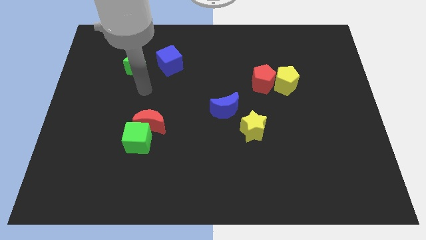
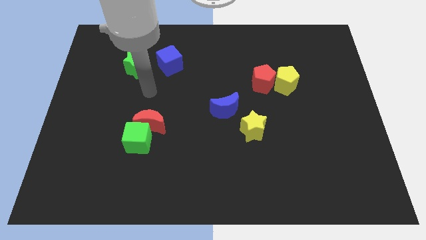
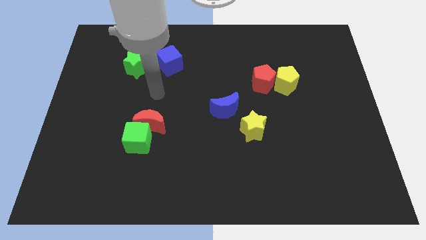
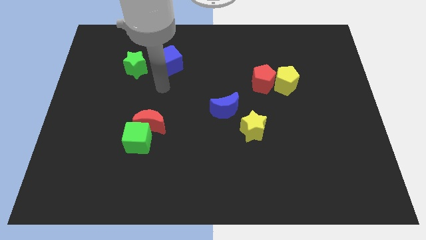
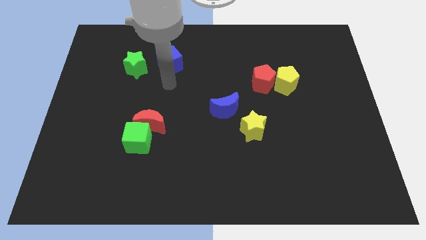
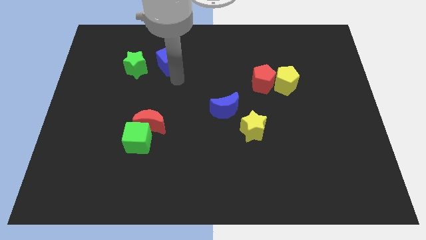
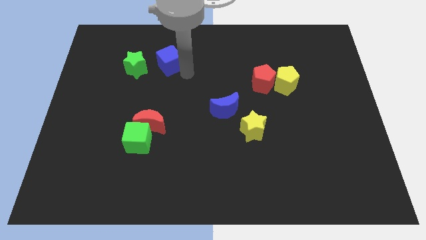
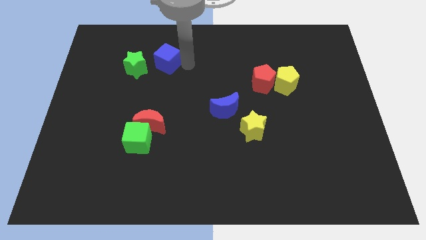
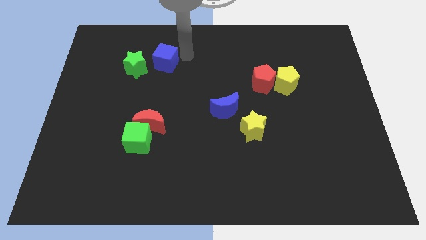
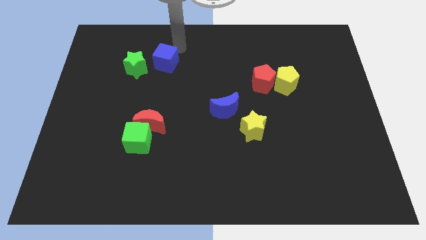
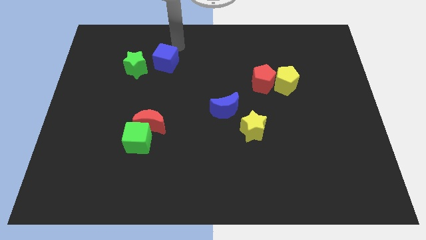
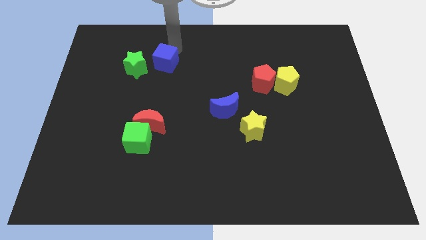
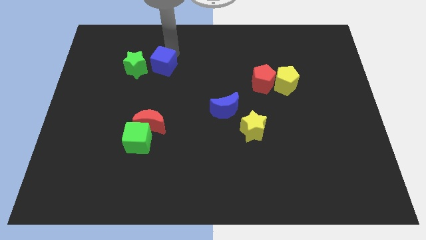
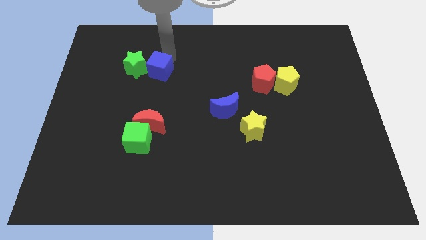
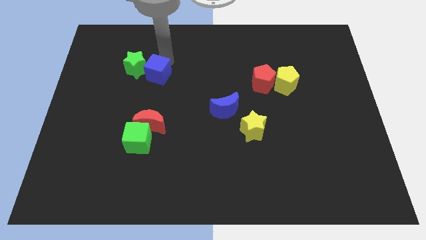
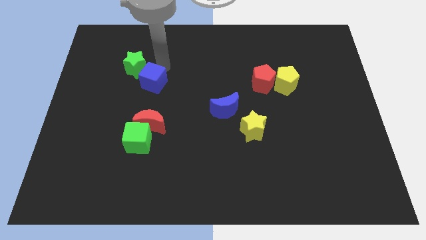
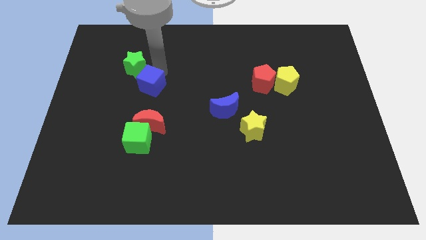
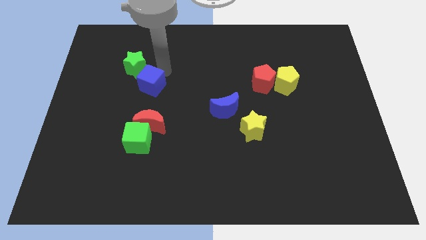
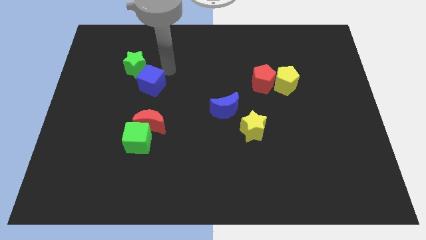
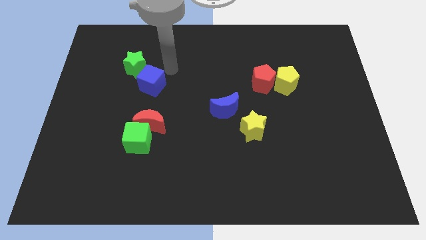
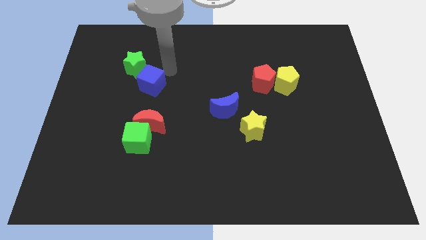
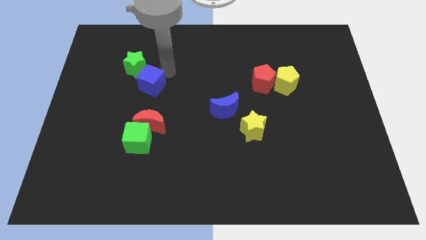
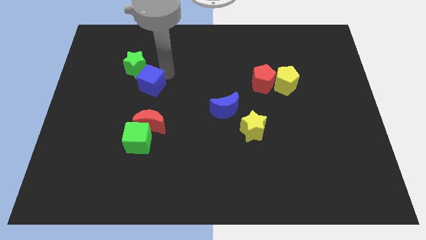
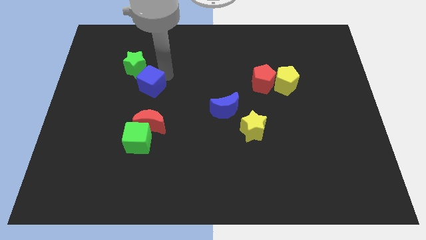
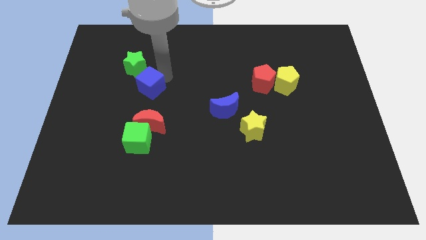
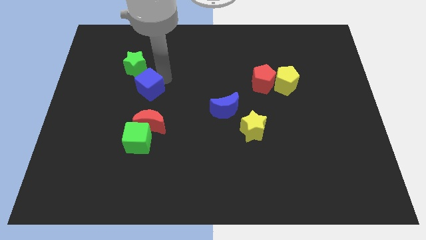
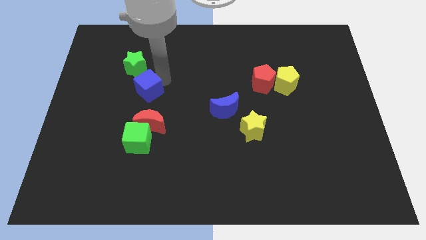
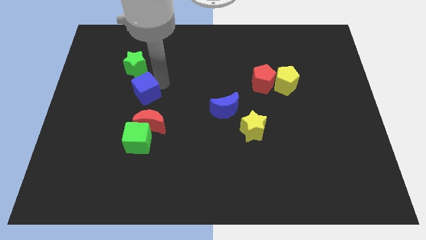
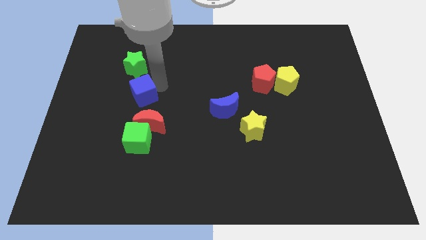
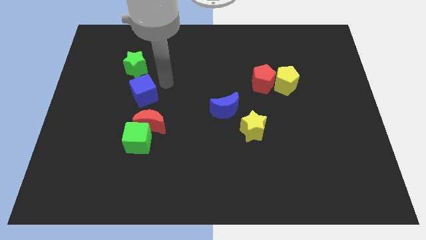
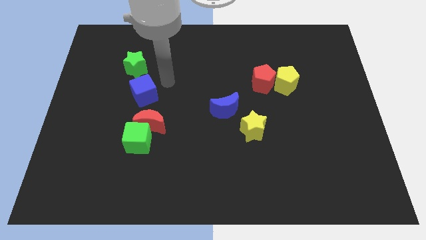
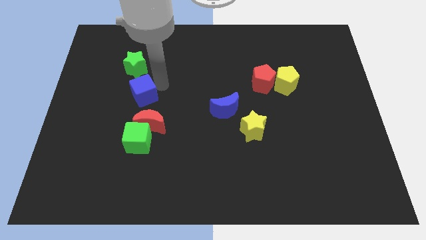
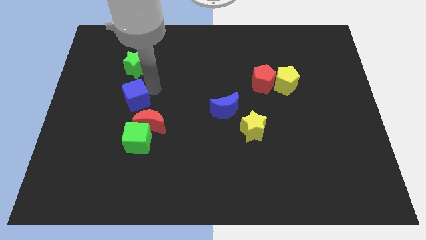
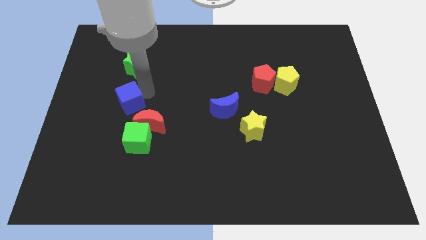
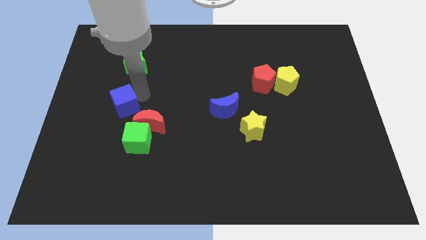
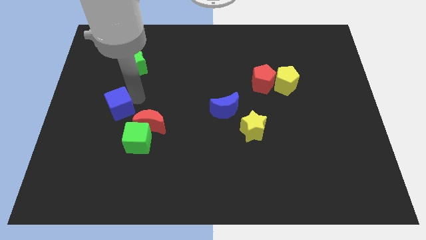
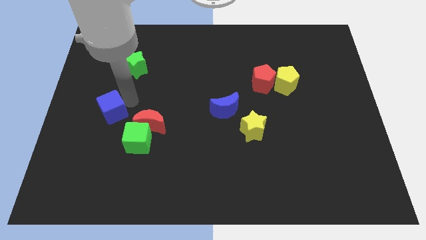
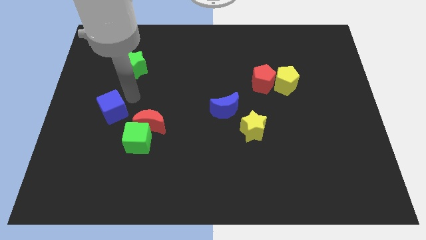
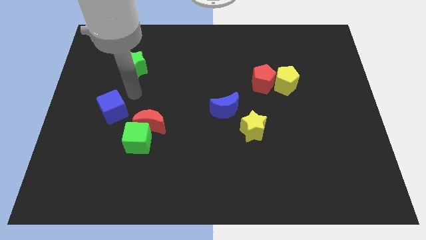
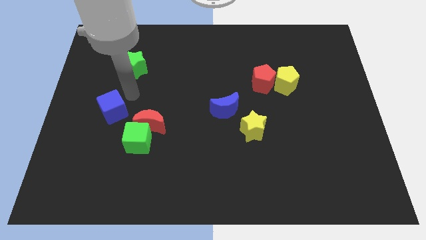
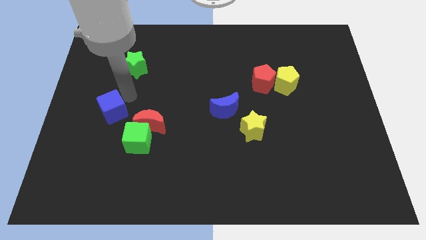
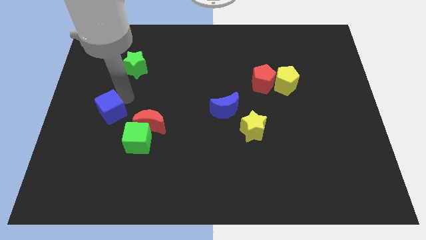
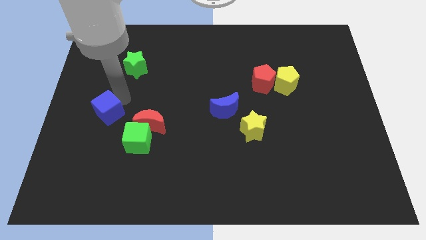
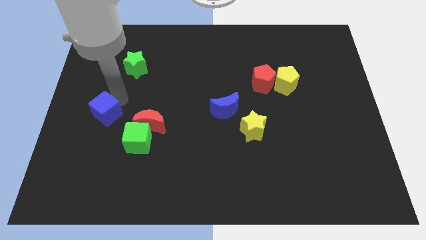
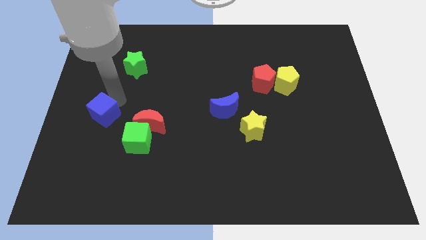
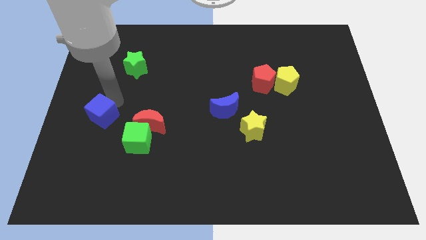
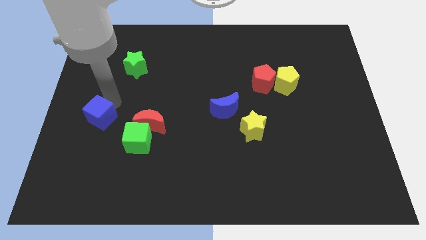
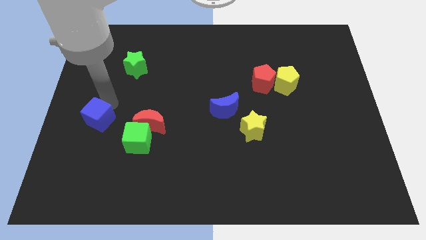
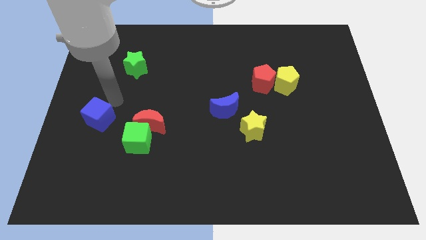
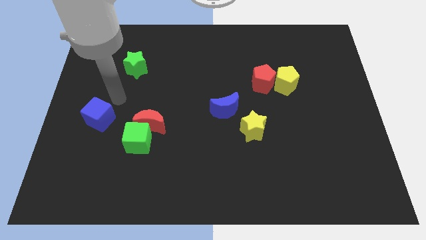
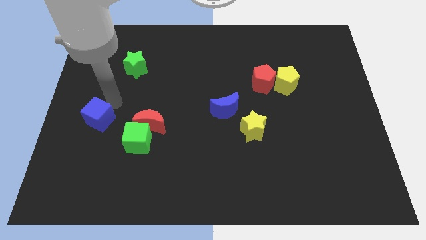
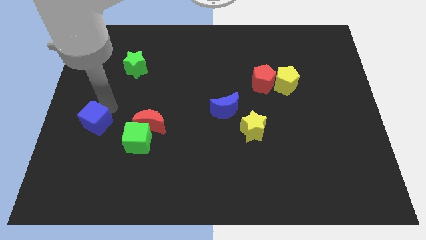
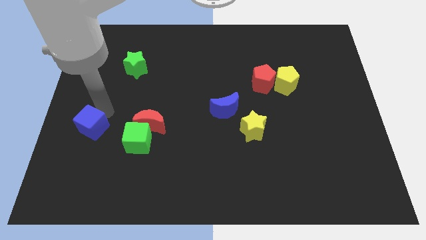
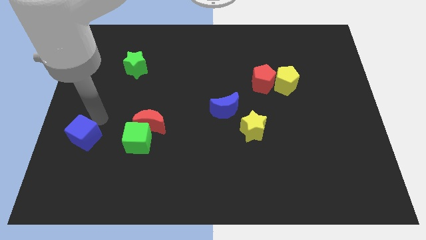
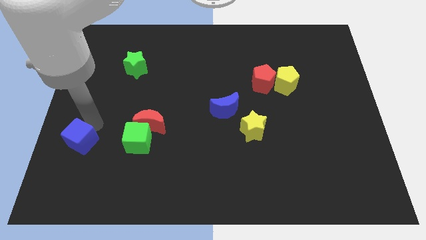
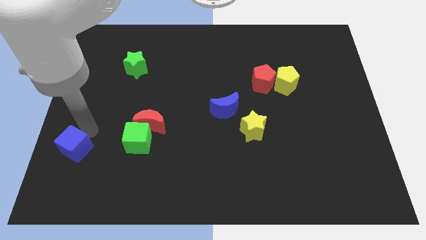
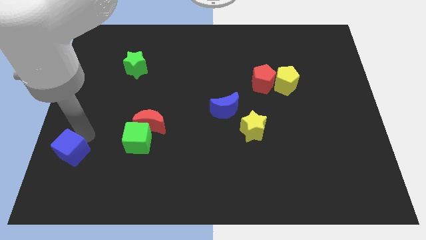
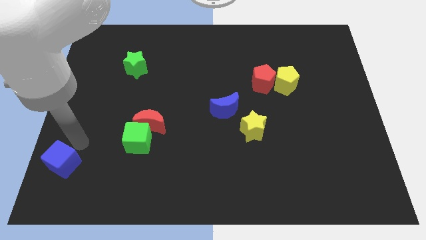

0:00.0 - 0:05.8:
put the blue cube to the lower left corner

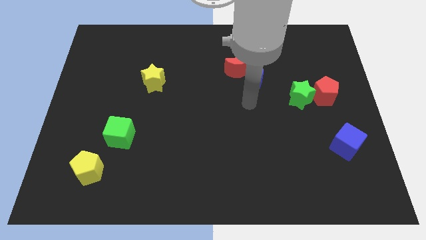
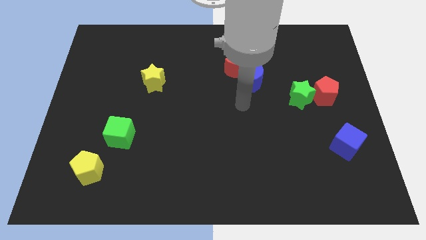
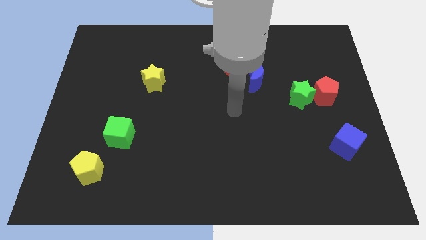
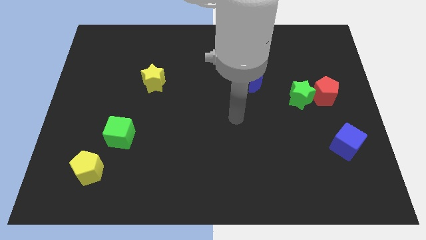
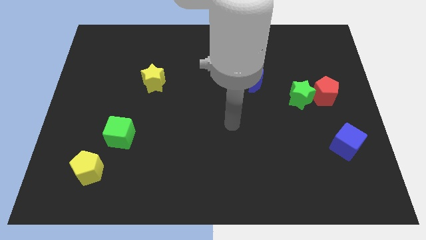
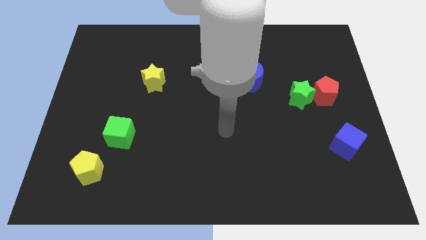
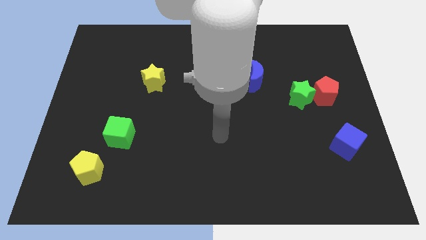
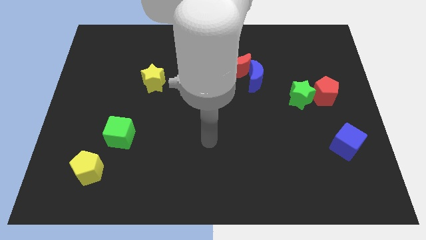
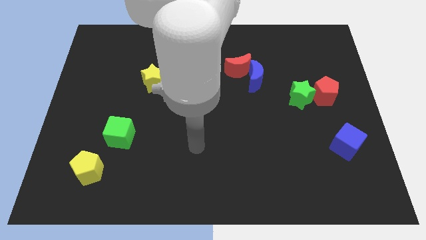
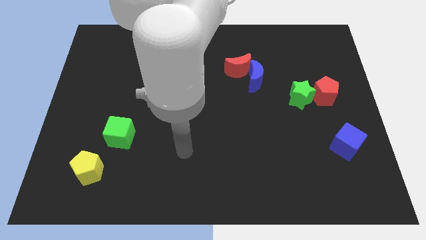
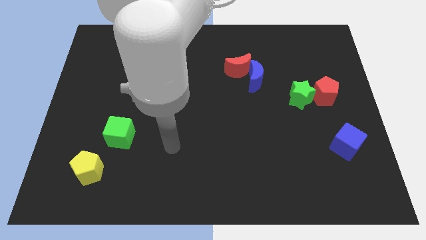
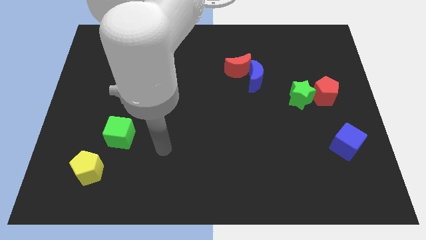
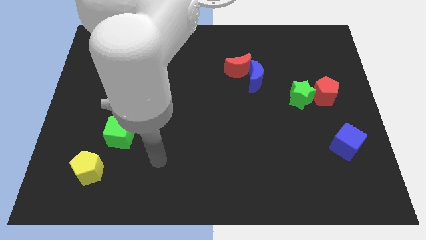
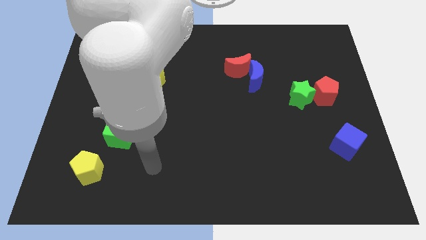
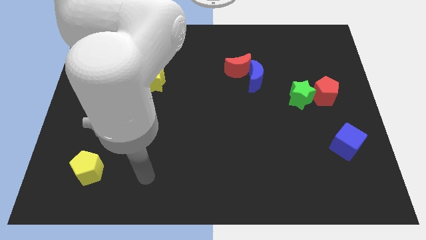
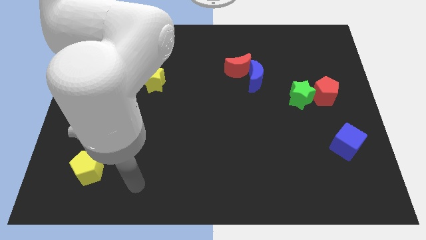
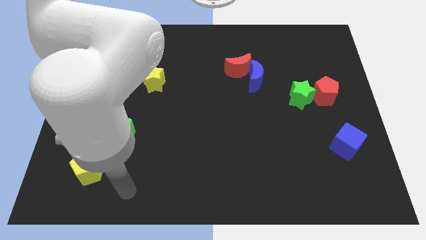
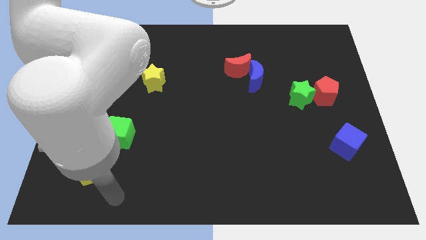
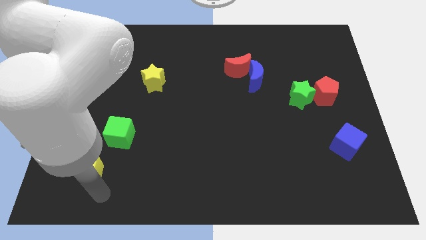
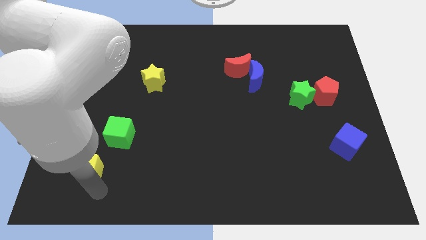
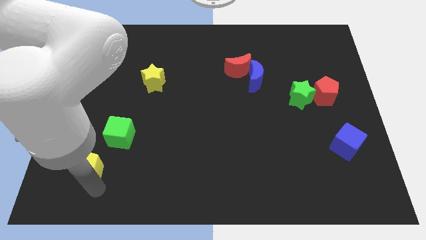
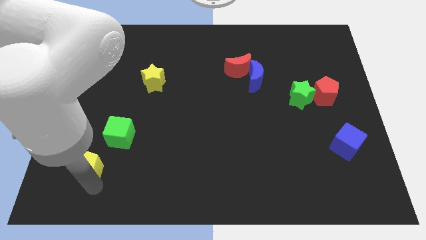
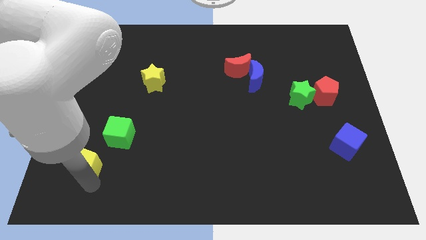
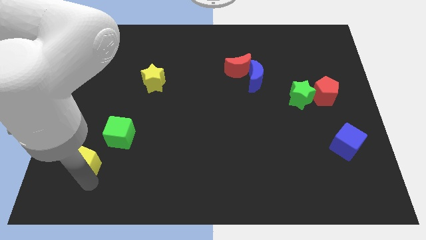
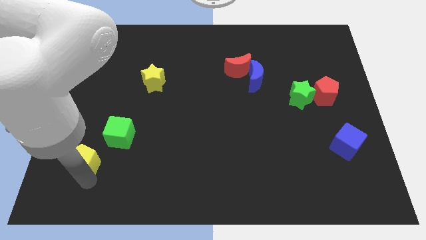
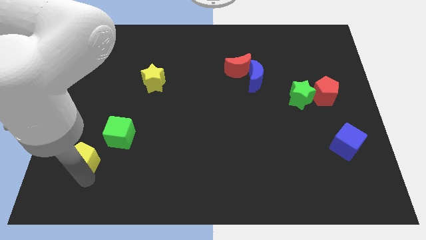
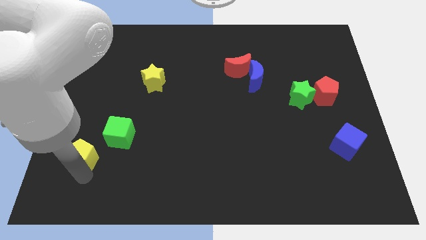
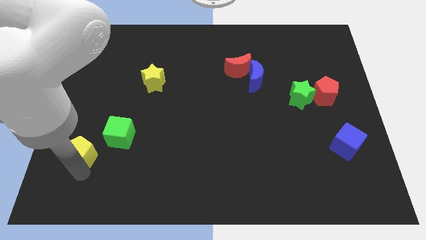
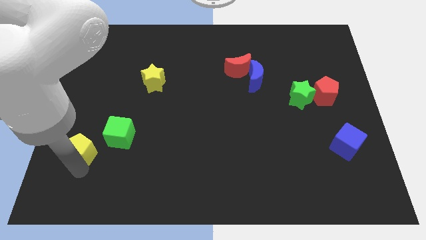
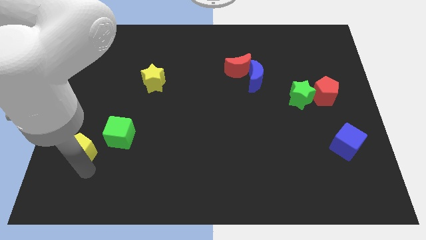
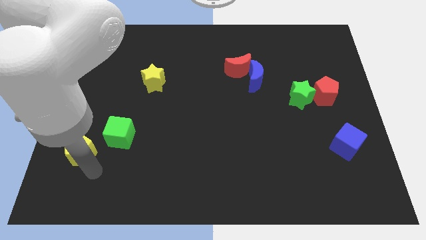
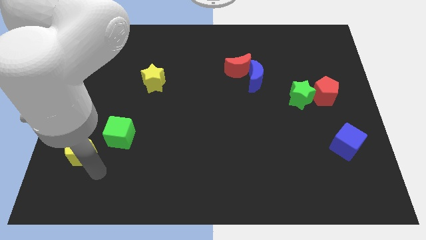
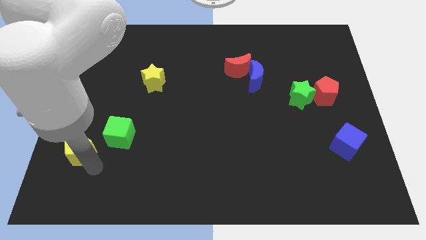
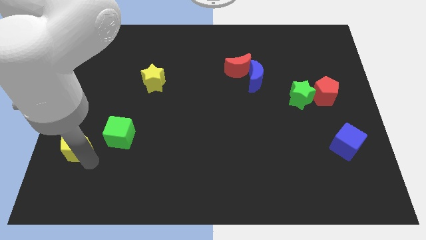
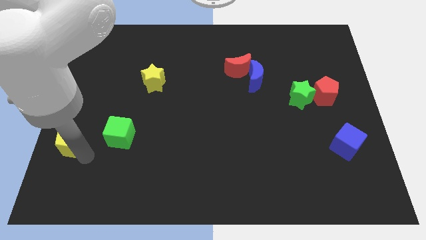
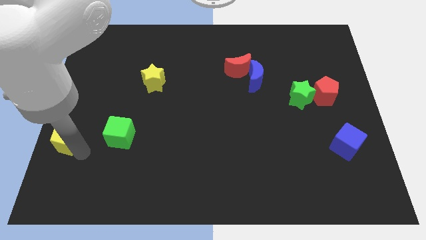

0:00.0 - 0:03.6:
put the yellow pentagon to the center left
